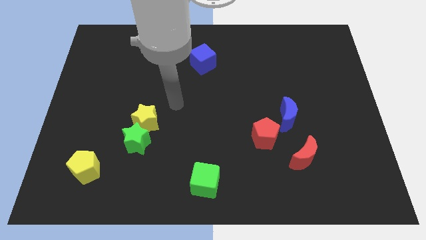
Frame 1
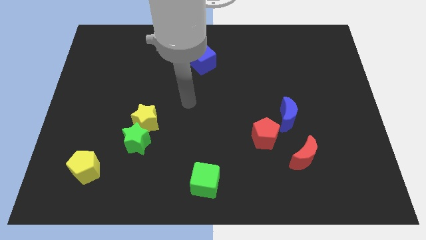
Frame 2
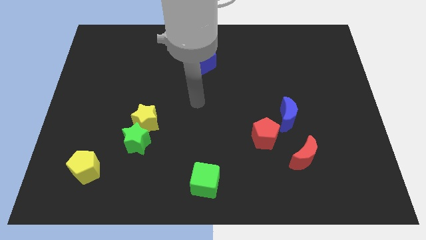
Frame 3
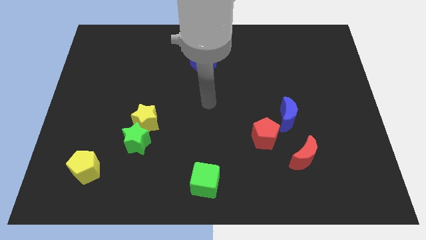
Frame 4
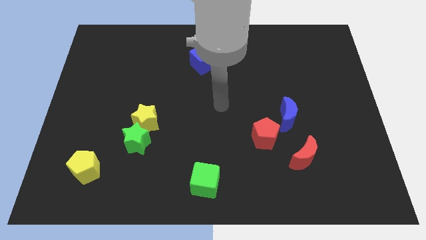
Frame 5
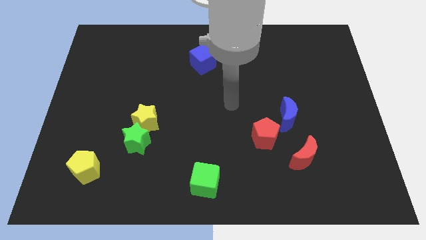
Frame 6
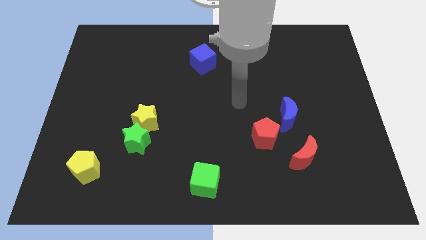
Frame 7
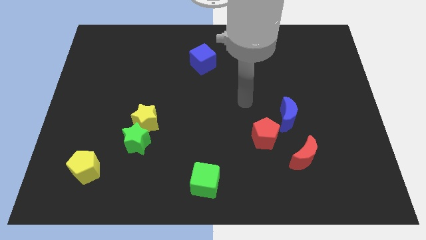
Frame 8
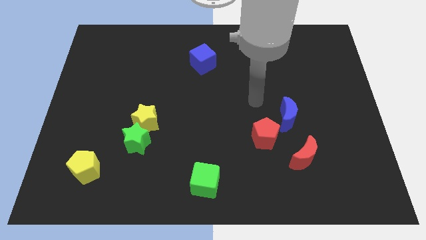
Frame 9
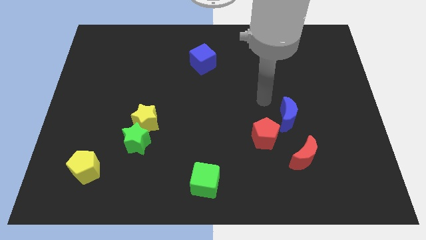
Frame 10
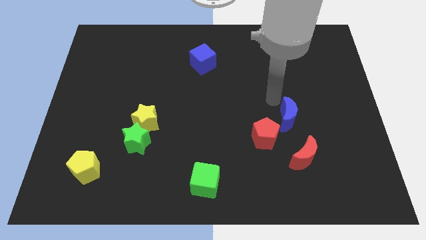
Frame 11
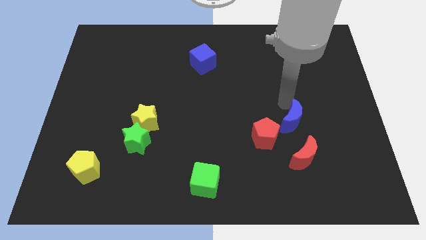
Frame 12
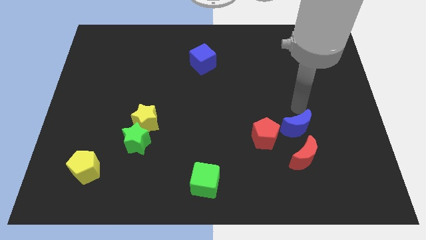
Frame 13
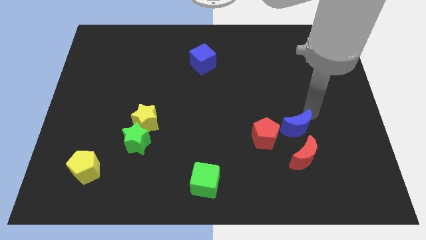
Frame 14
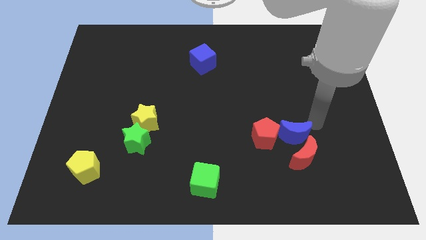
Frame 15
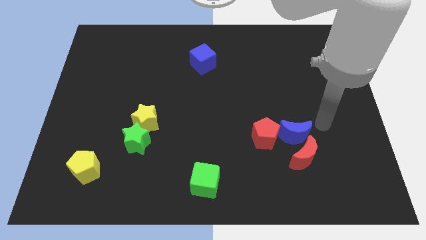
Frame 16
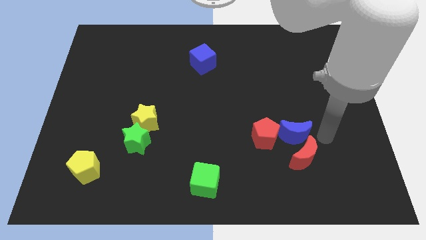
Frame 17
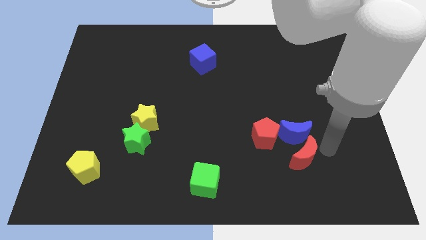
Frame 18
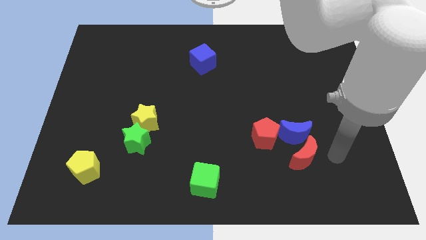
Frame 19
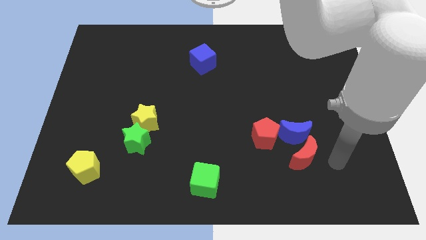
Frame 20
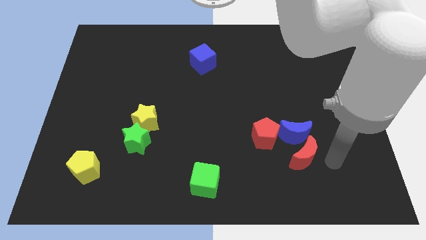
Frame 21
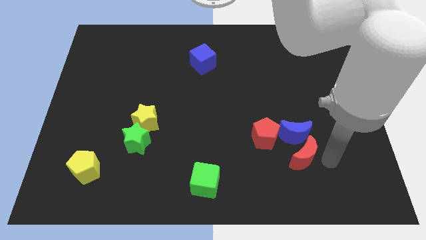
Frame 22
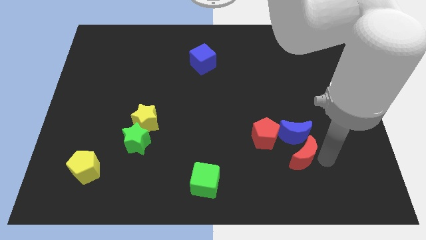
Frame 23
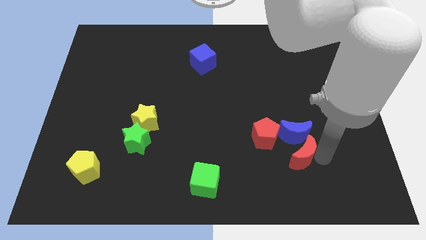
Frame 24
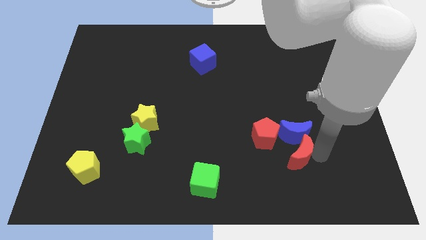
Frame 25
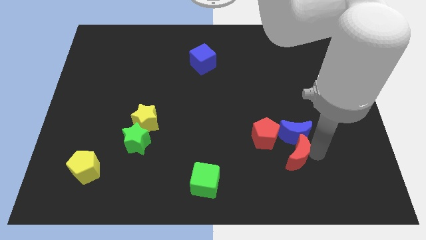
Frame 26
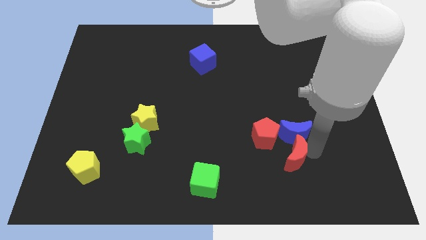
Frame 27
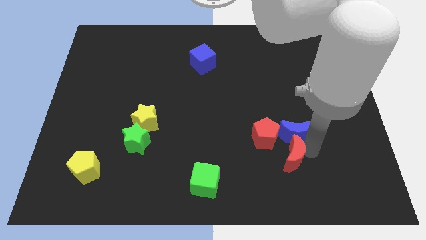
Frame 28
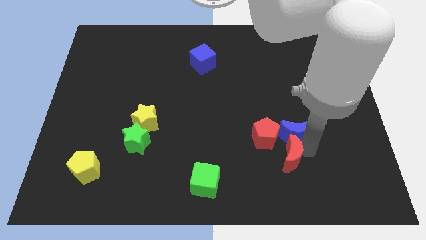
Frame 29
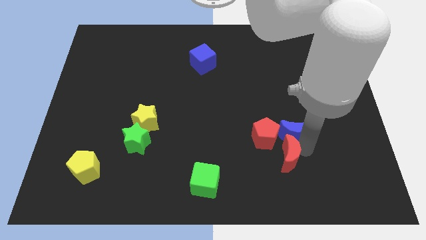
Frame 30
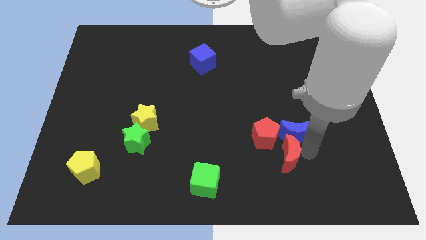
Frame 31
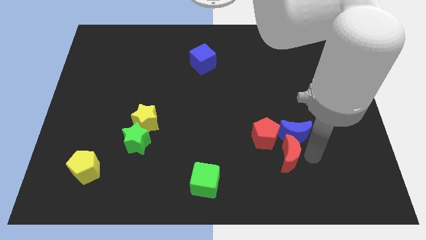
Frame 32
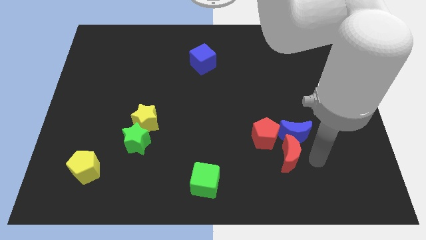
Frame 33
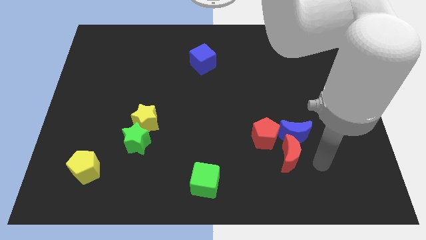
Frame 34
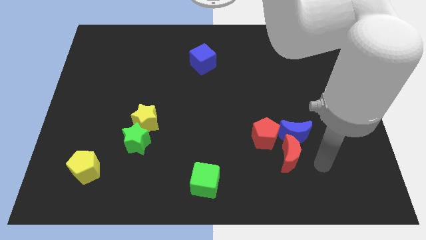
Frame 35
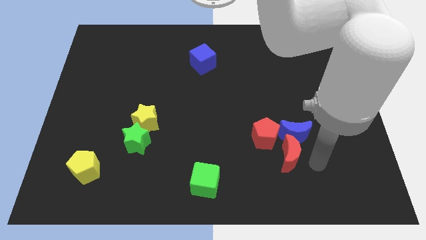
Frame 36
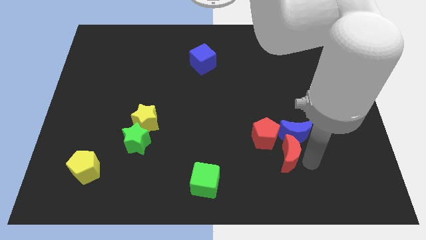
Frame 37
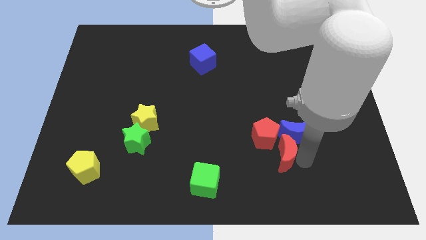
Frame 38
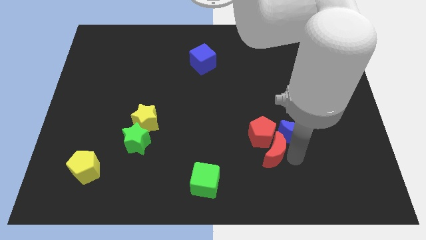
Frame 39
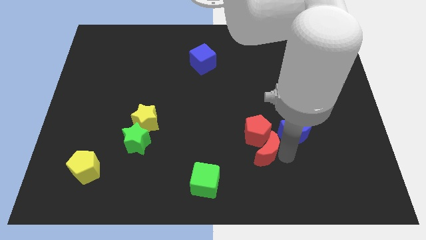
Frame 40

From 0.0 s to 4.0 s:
slide the red moon a bit to the left

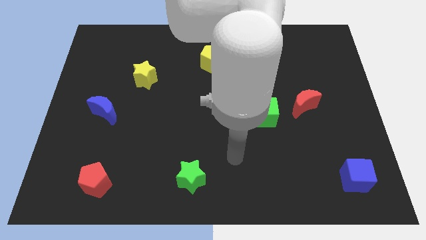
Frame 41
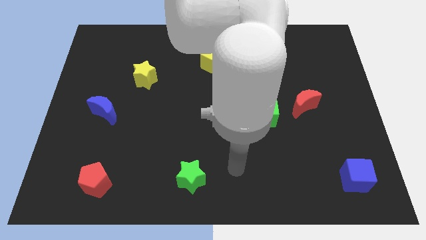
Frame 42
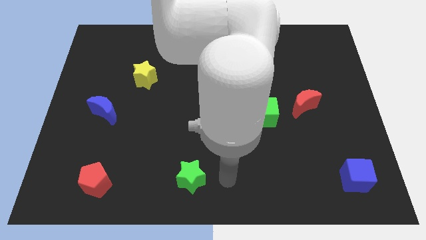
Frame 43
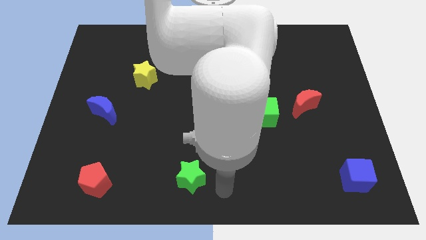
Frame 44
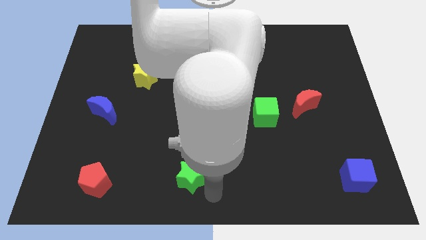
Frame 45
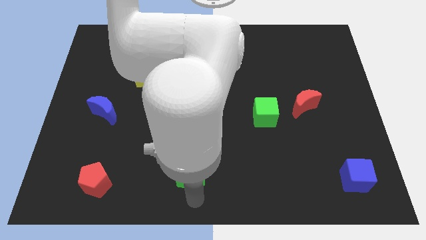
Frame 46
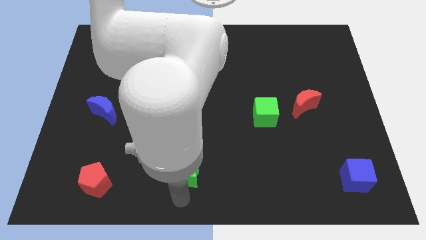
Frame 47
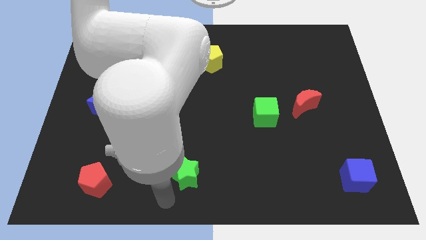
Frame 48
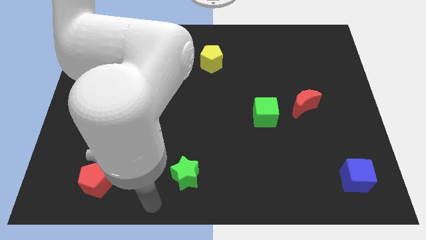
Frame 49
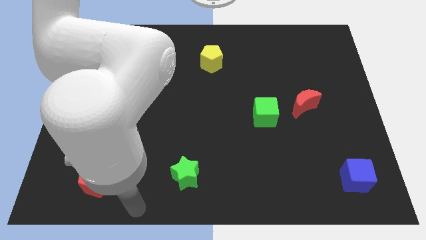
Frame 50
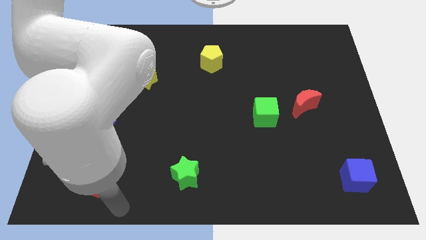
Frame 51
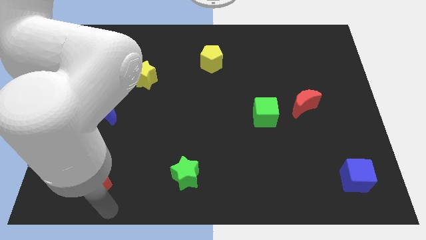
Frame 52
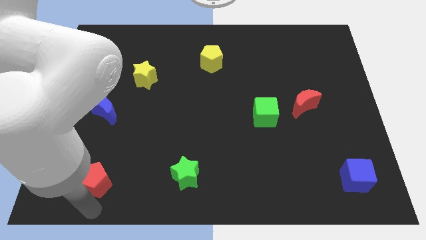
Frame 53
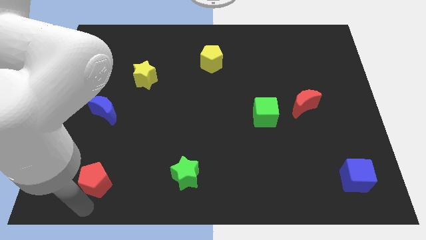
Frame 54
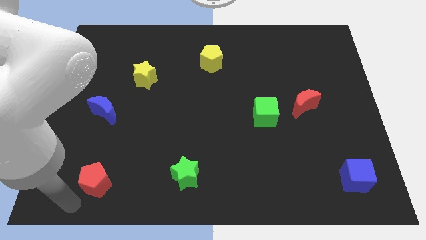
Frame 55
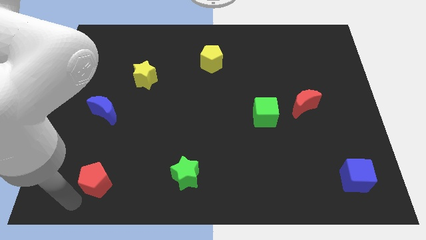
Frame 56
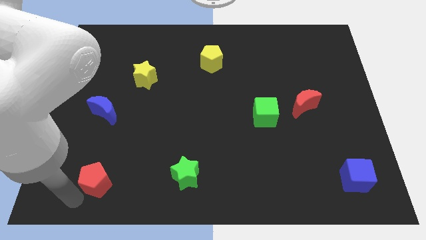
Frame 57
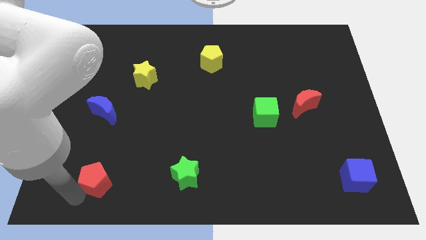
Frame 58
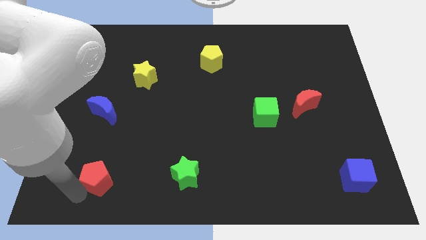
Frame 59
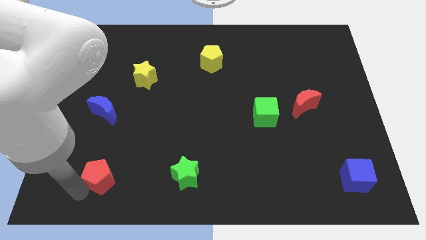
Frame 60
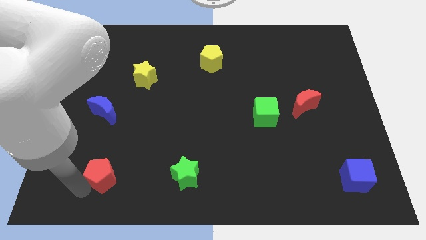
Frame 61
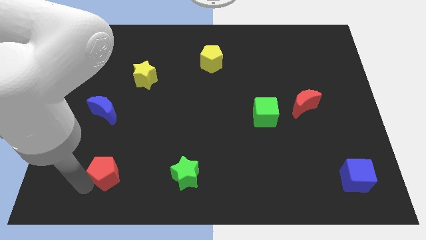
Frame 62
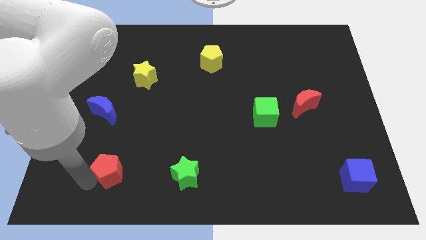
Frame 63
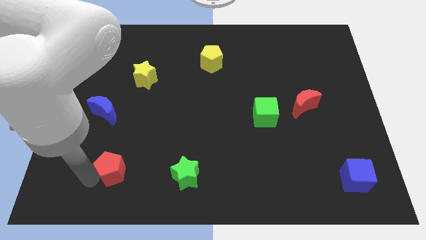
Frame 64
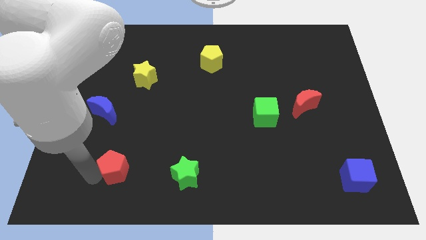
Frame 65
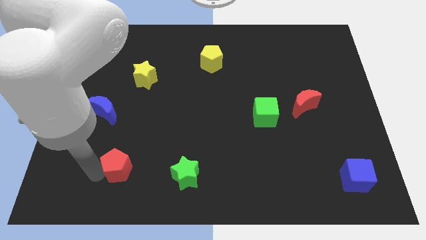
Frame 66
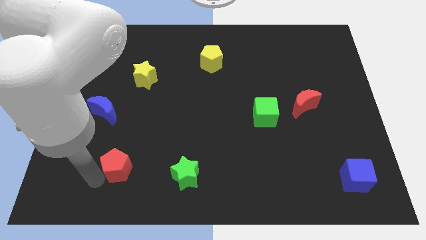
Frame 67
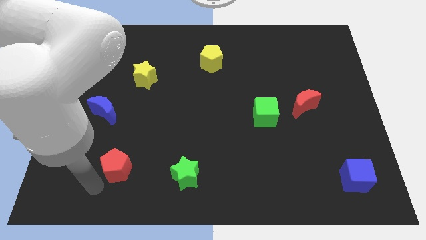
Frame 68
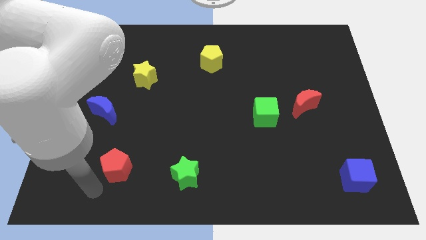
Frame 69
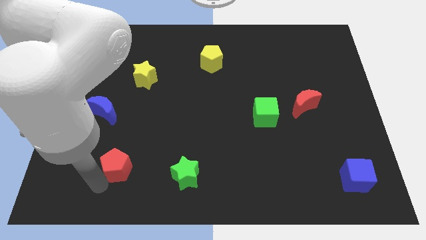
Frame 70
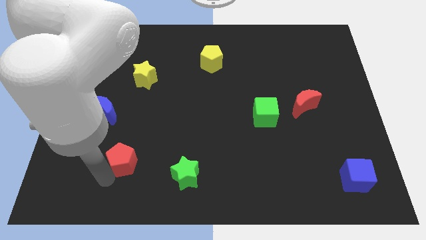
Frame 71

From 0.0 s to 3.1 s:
slightly push the red pentagon diagonally up and right

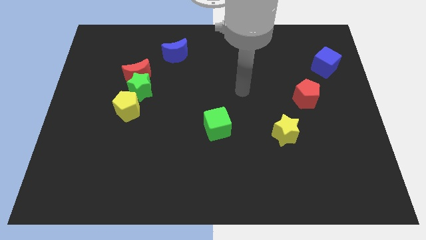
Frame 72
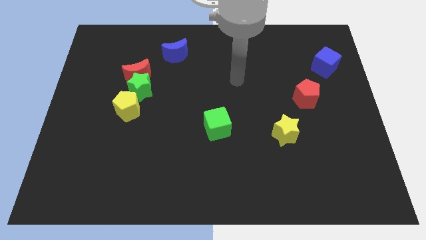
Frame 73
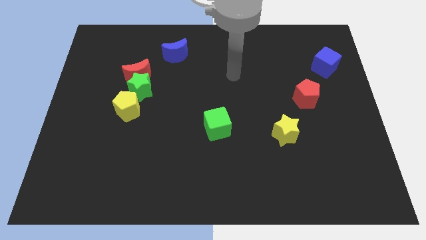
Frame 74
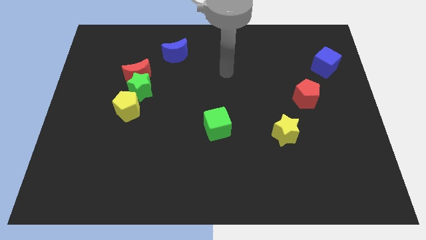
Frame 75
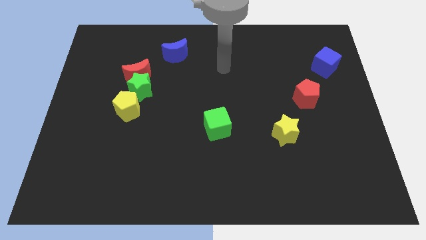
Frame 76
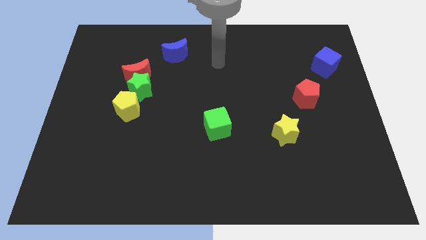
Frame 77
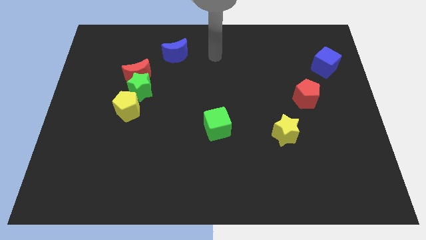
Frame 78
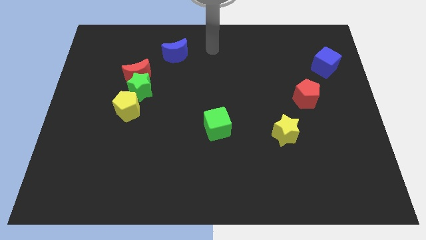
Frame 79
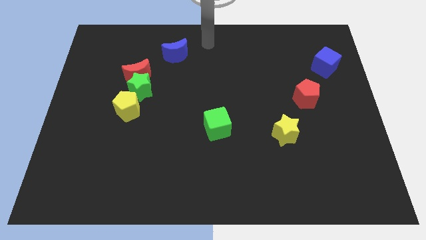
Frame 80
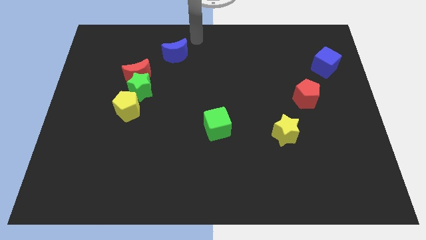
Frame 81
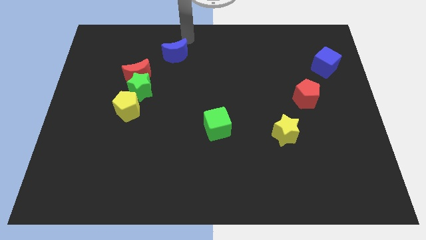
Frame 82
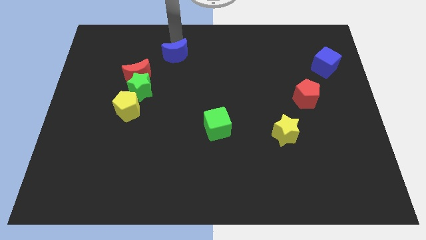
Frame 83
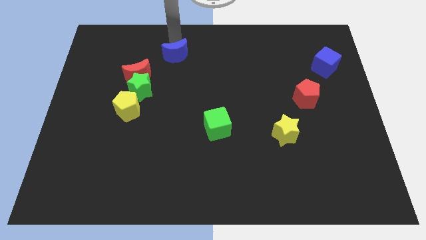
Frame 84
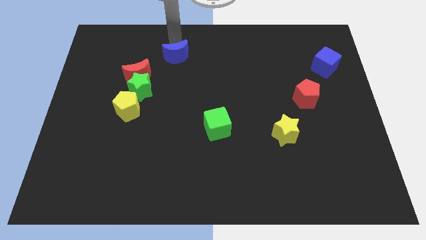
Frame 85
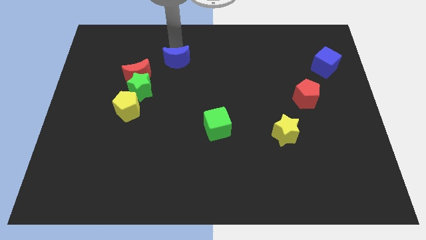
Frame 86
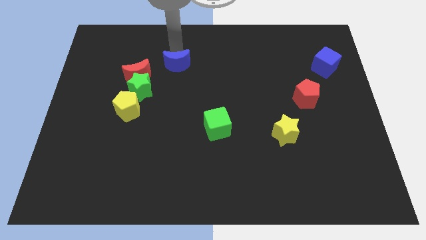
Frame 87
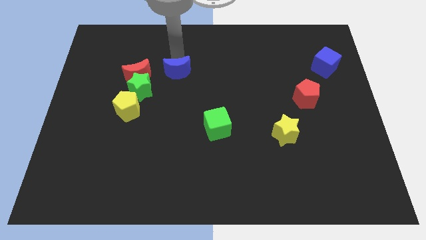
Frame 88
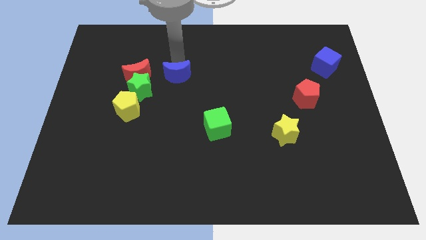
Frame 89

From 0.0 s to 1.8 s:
slide the blue moon a little bit down
